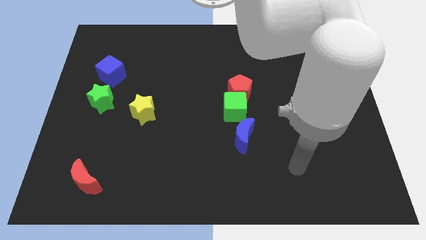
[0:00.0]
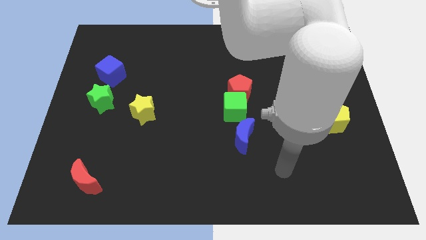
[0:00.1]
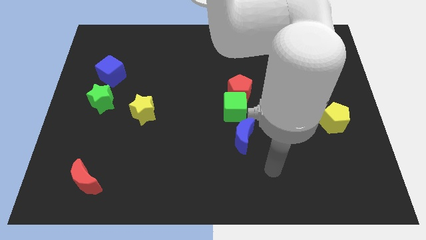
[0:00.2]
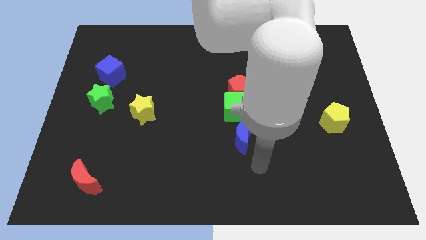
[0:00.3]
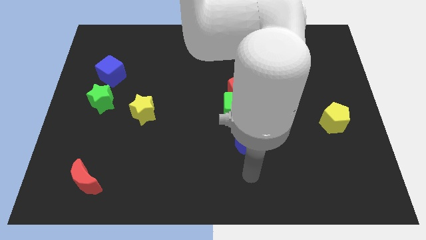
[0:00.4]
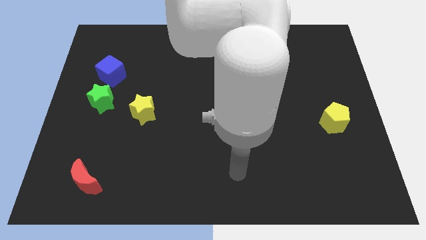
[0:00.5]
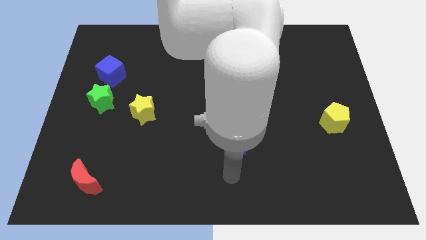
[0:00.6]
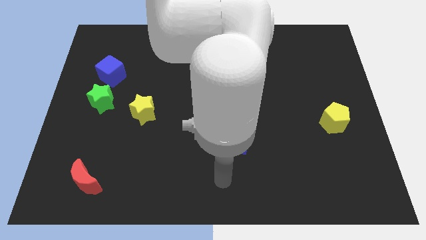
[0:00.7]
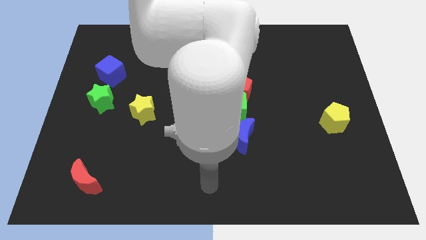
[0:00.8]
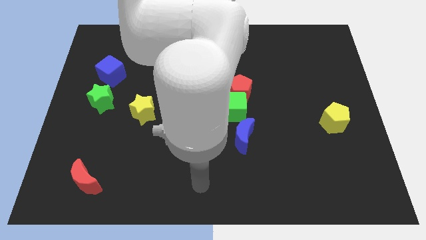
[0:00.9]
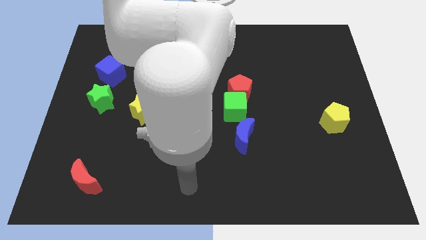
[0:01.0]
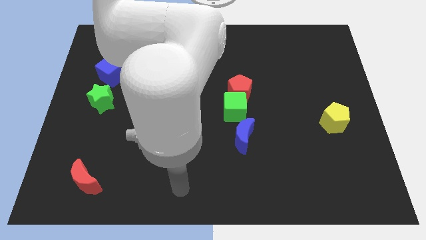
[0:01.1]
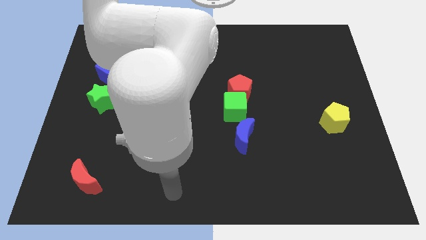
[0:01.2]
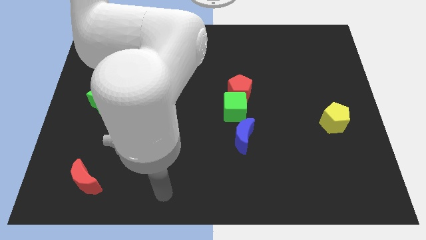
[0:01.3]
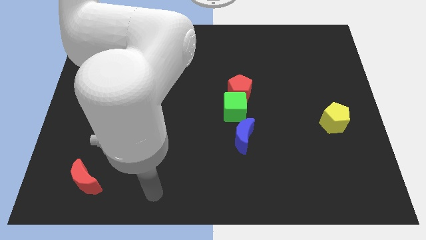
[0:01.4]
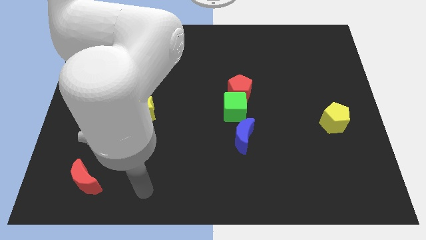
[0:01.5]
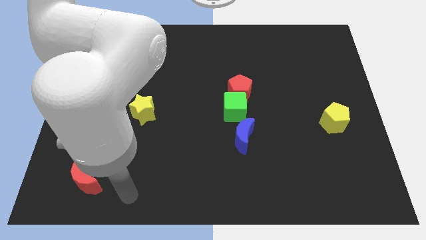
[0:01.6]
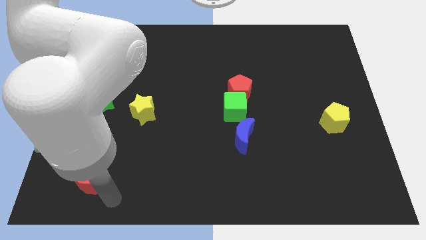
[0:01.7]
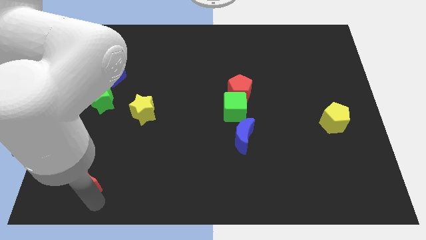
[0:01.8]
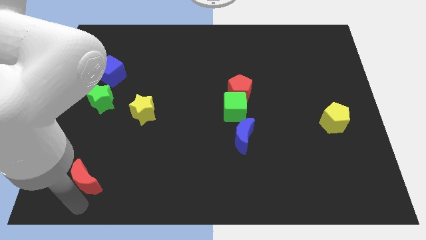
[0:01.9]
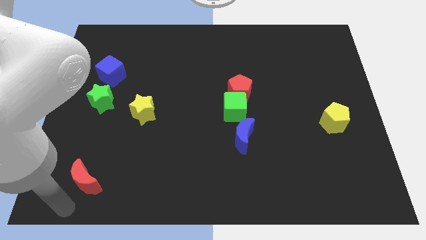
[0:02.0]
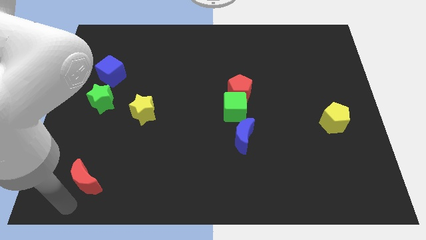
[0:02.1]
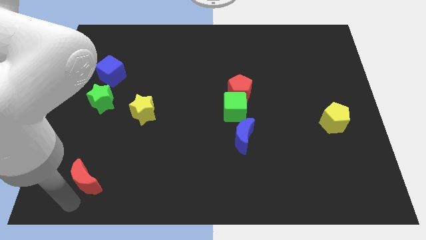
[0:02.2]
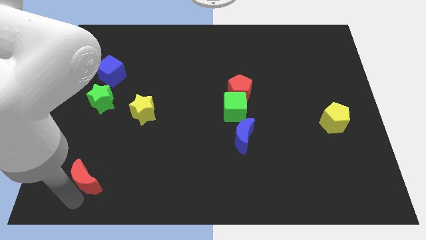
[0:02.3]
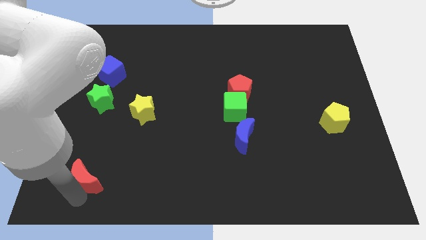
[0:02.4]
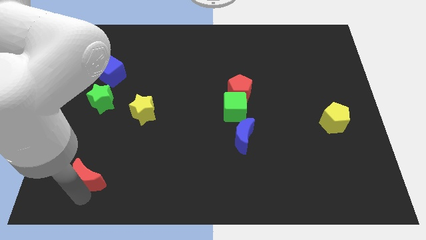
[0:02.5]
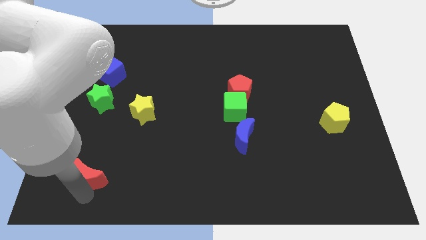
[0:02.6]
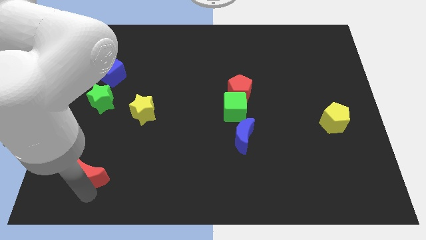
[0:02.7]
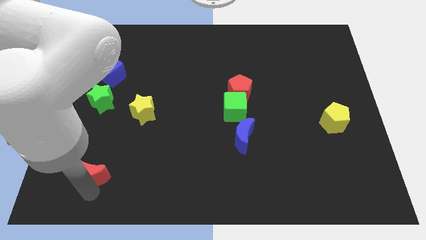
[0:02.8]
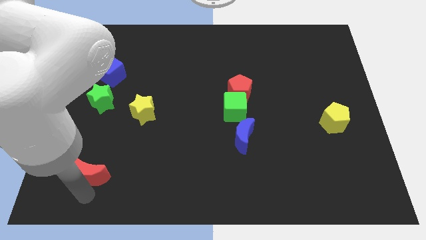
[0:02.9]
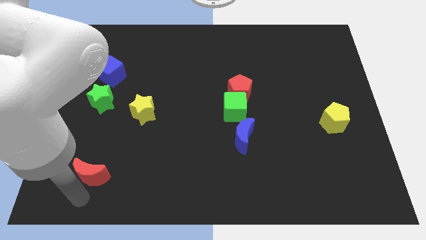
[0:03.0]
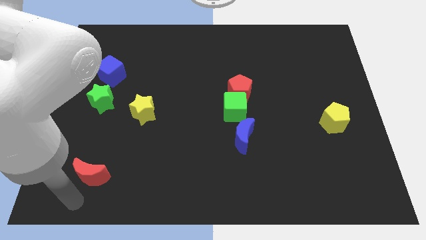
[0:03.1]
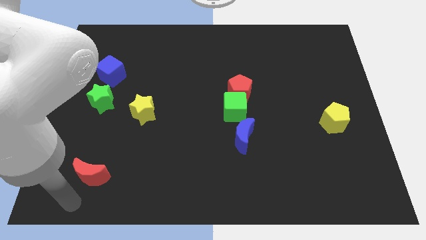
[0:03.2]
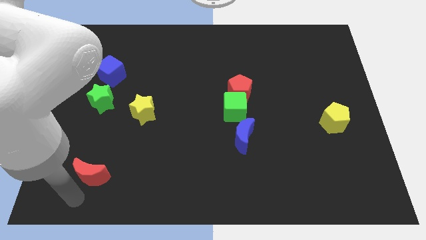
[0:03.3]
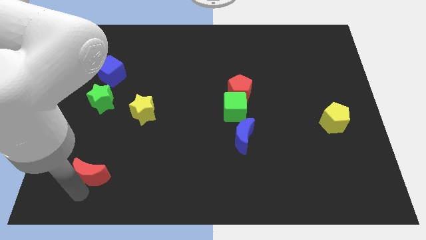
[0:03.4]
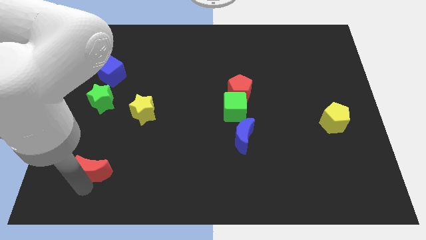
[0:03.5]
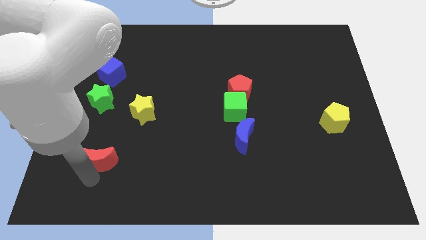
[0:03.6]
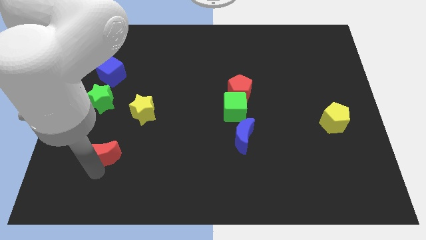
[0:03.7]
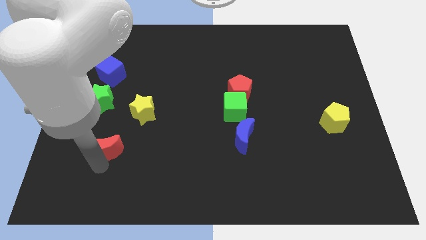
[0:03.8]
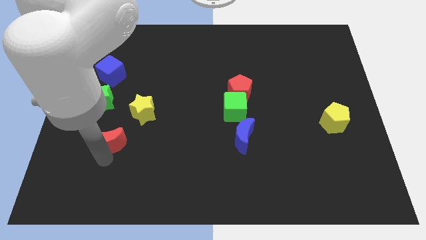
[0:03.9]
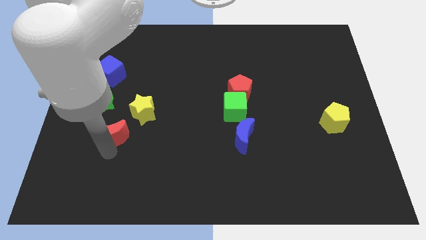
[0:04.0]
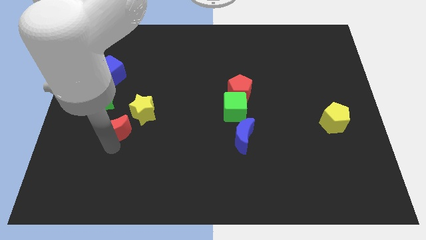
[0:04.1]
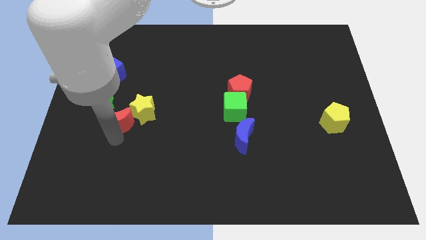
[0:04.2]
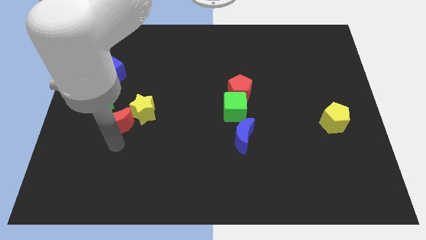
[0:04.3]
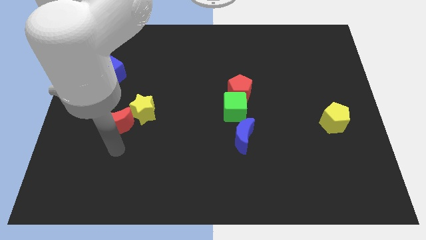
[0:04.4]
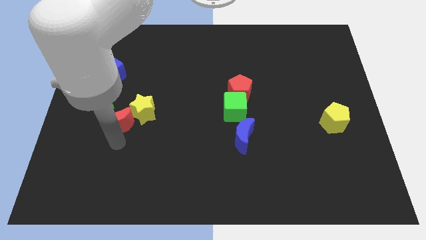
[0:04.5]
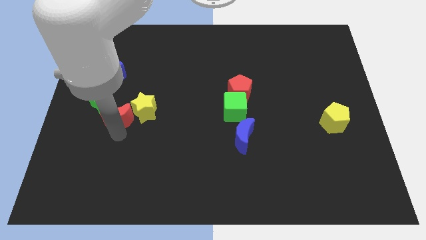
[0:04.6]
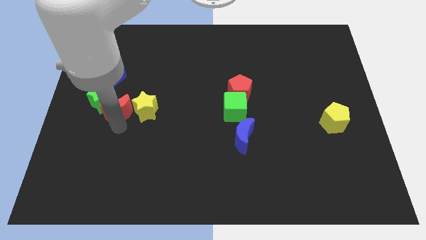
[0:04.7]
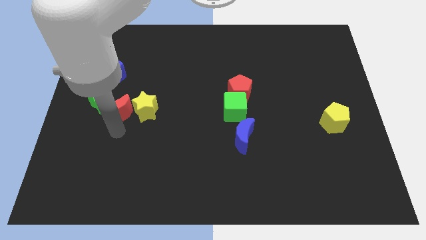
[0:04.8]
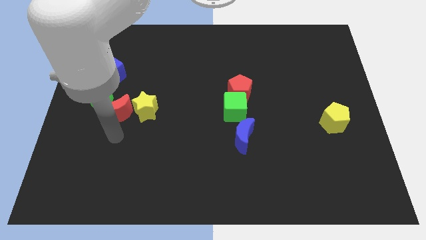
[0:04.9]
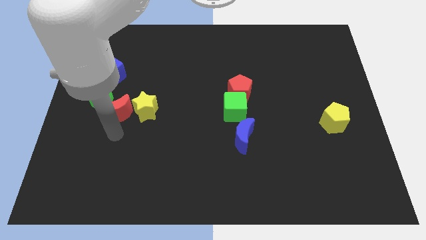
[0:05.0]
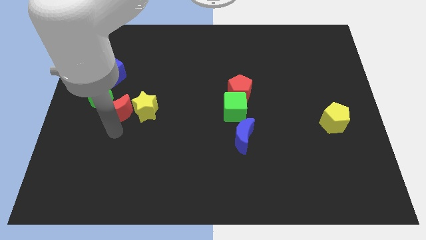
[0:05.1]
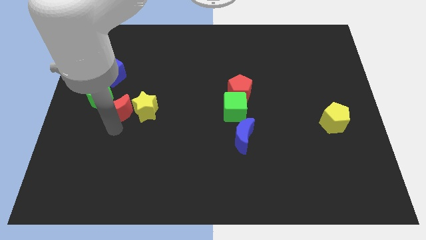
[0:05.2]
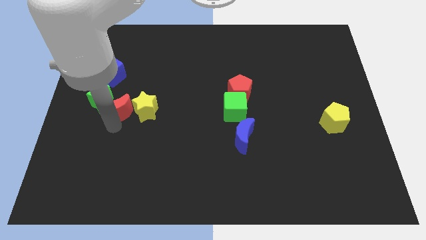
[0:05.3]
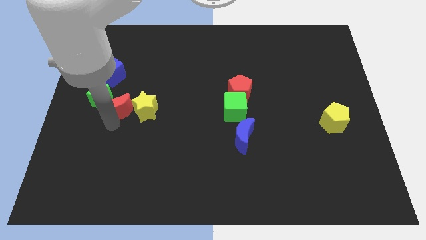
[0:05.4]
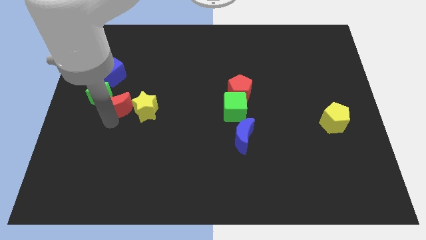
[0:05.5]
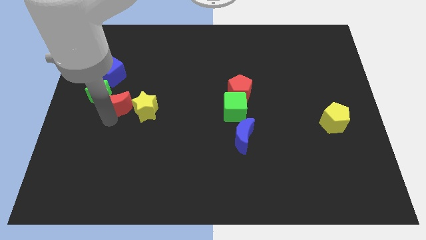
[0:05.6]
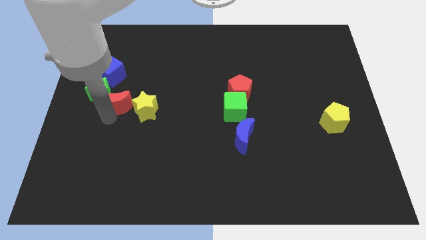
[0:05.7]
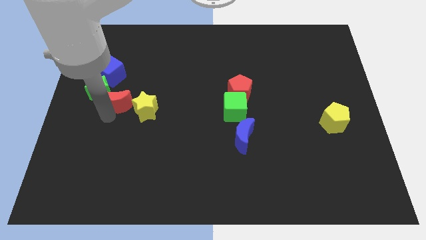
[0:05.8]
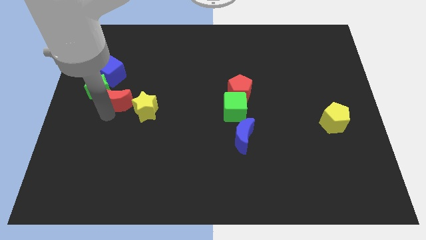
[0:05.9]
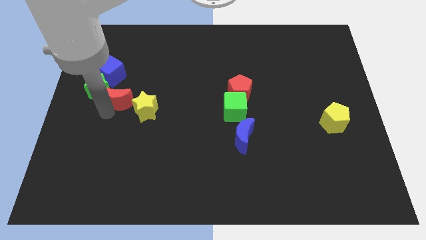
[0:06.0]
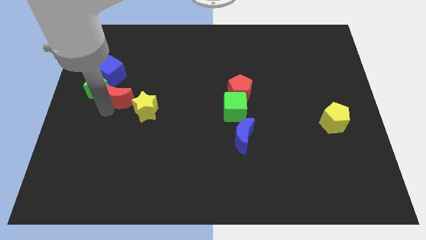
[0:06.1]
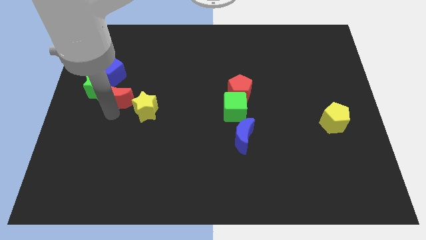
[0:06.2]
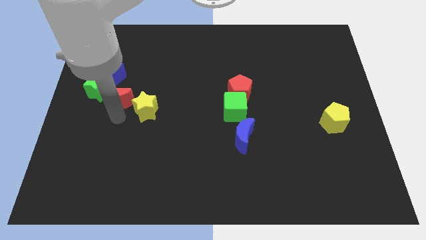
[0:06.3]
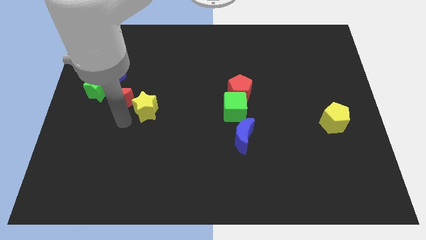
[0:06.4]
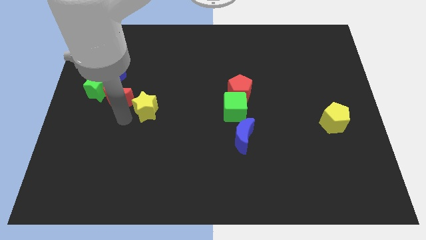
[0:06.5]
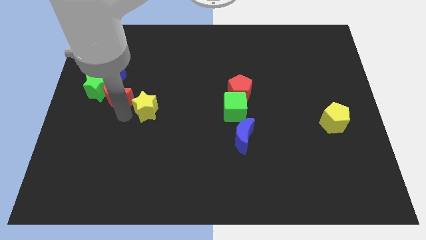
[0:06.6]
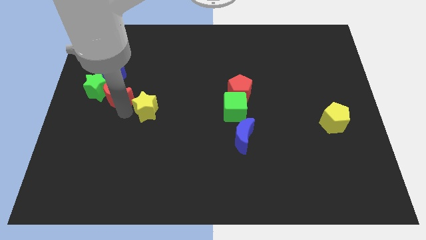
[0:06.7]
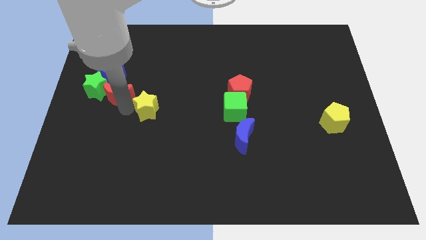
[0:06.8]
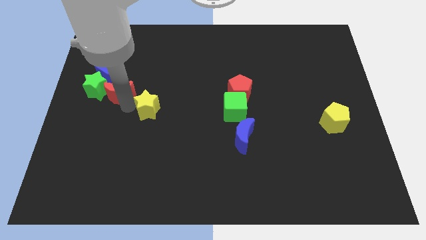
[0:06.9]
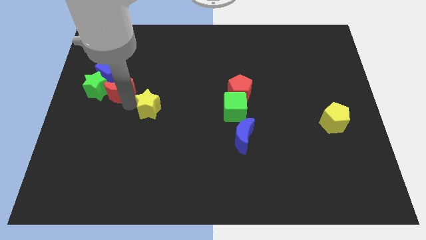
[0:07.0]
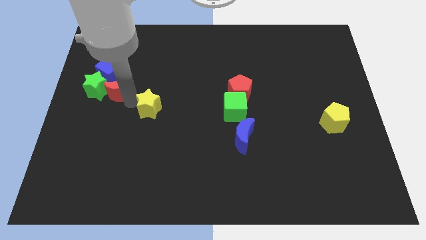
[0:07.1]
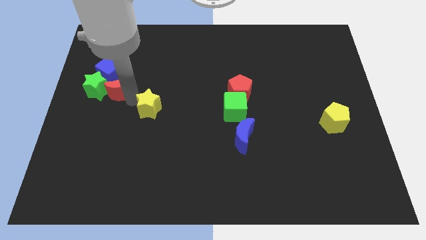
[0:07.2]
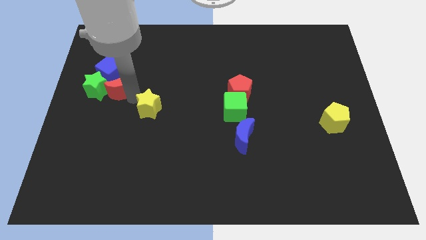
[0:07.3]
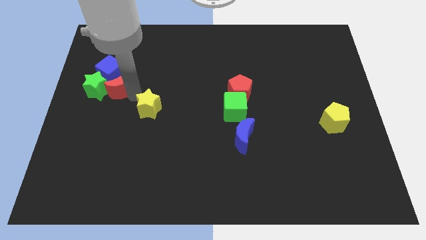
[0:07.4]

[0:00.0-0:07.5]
slide the red moon close to the blue cube

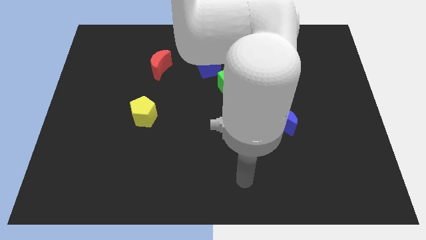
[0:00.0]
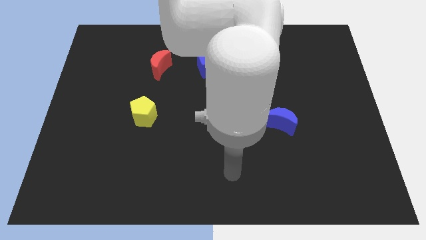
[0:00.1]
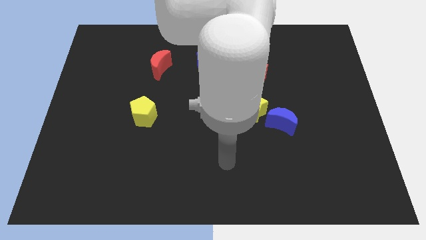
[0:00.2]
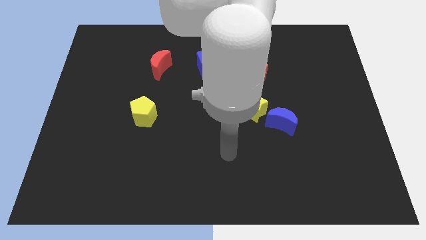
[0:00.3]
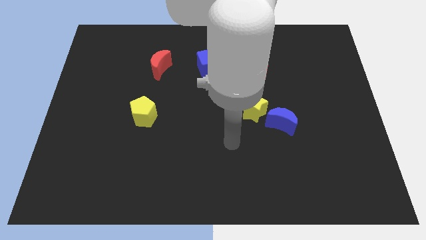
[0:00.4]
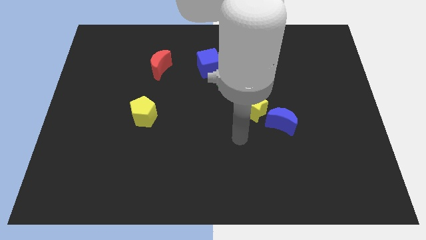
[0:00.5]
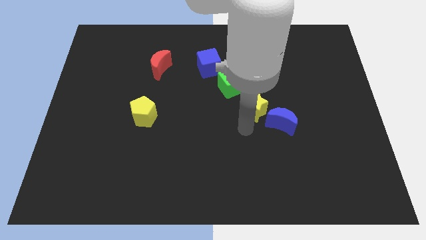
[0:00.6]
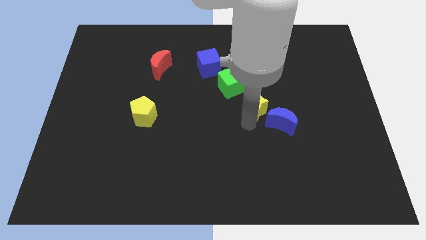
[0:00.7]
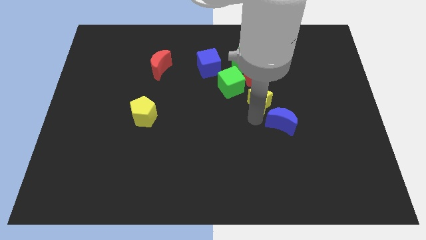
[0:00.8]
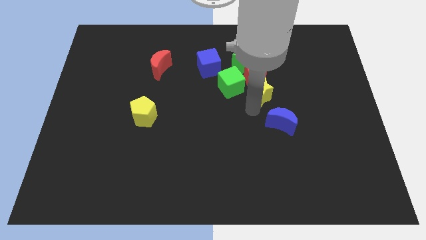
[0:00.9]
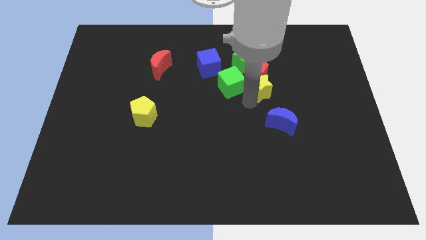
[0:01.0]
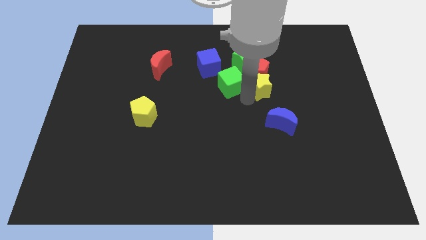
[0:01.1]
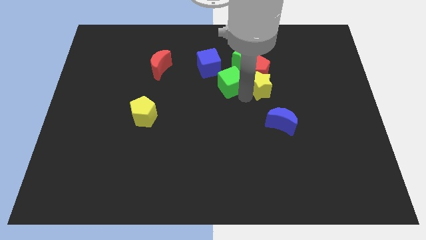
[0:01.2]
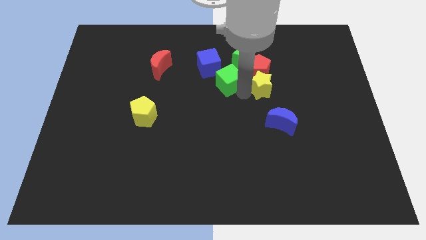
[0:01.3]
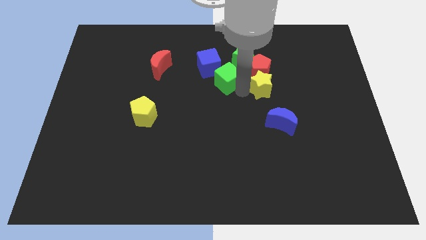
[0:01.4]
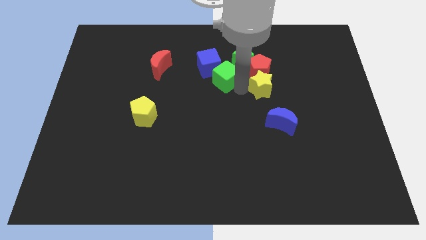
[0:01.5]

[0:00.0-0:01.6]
slide the green cube to the blue cube
